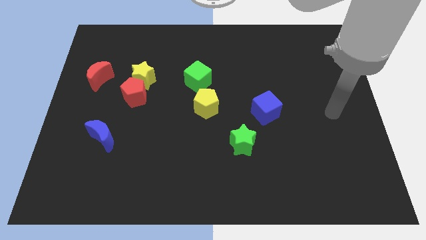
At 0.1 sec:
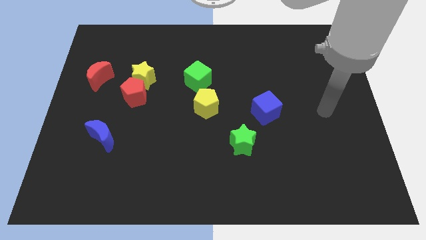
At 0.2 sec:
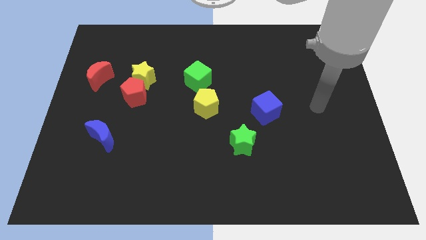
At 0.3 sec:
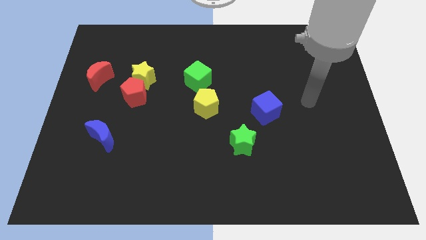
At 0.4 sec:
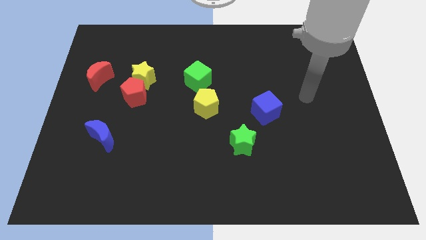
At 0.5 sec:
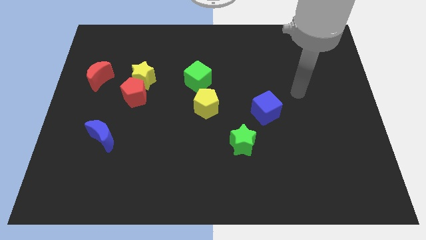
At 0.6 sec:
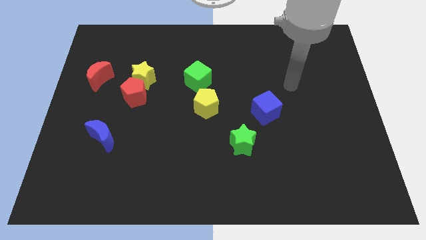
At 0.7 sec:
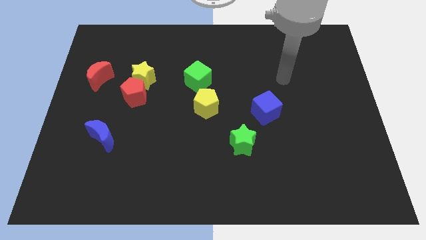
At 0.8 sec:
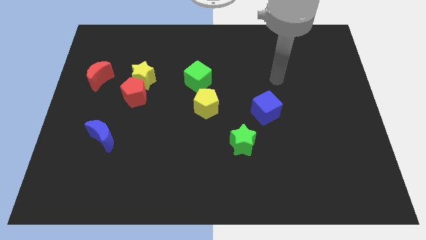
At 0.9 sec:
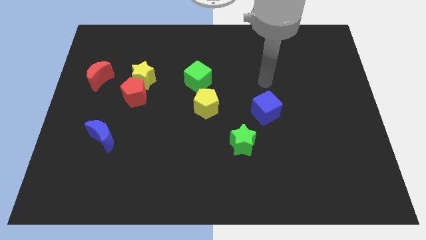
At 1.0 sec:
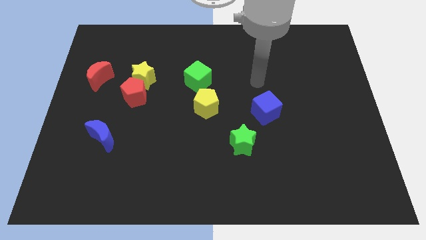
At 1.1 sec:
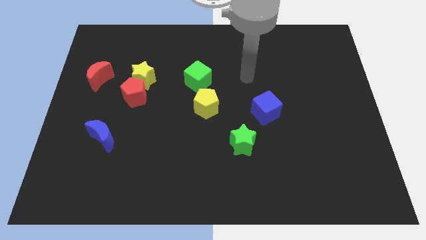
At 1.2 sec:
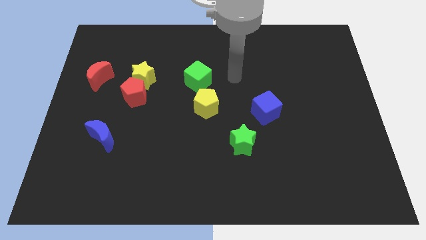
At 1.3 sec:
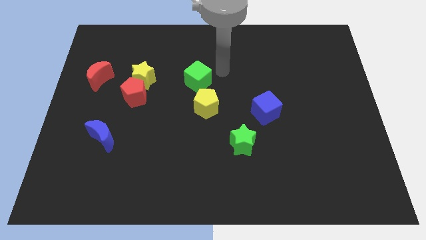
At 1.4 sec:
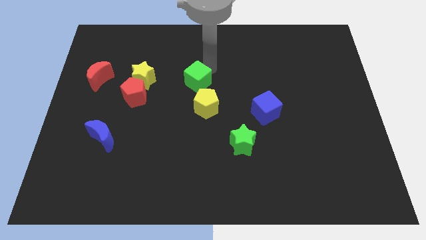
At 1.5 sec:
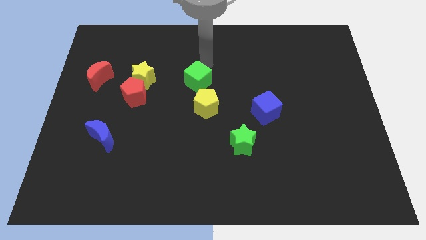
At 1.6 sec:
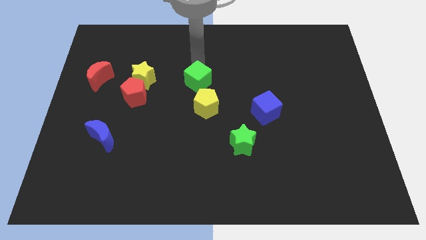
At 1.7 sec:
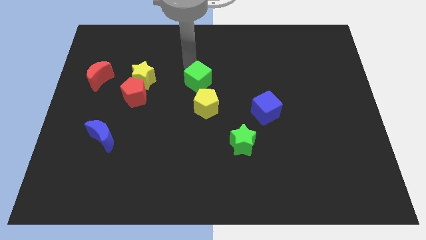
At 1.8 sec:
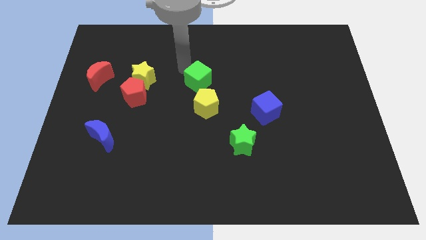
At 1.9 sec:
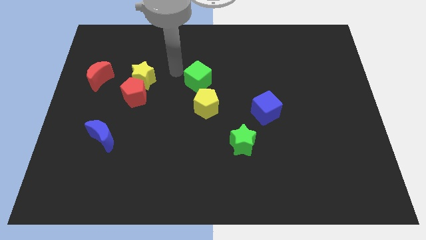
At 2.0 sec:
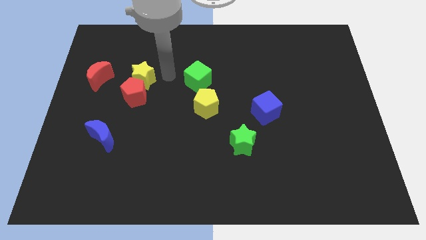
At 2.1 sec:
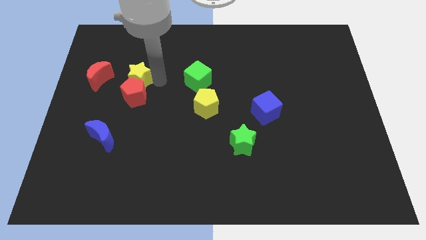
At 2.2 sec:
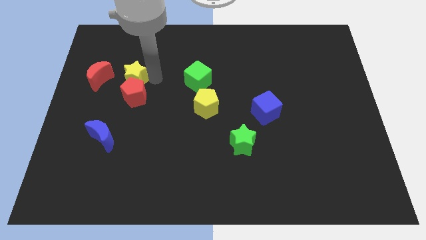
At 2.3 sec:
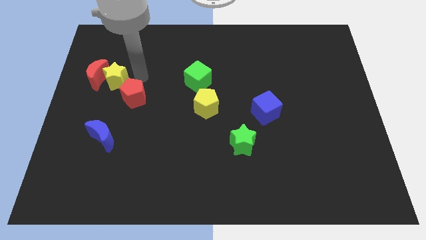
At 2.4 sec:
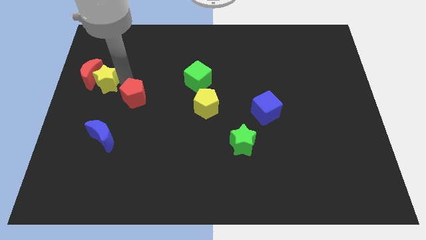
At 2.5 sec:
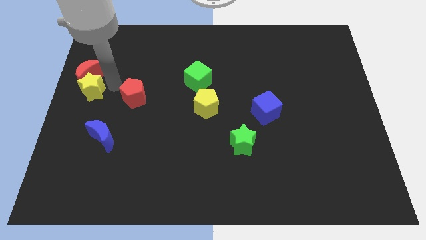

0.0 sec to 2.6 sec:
separate the red pentagon from the yellow star

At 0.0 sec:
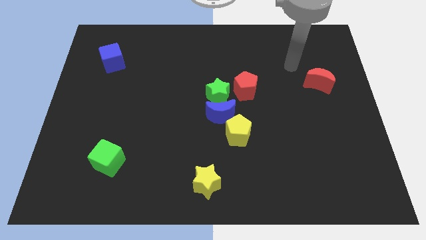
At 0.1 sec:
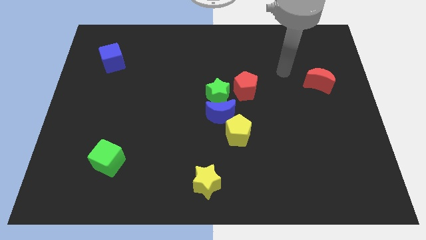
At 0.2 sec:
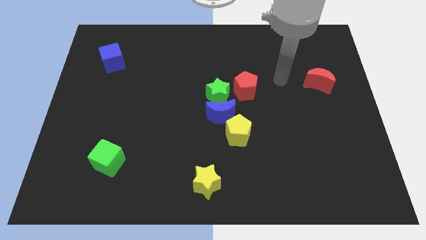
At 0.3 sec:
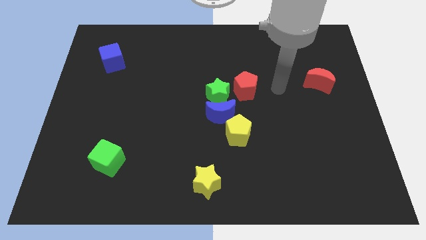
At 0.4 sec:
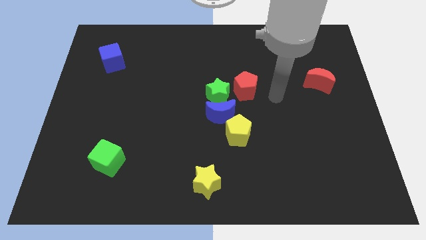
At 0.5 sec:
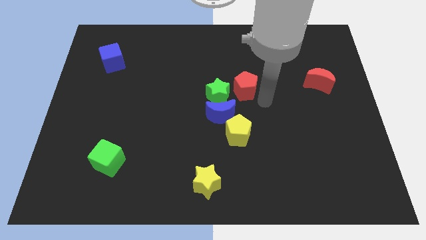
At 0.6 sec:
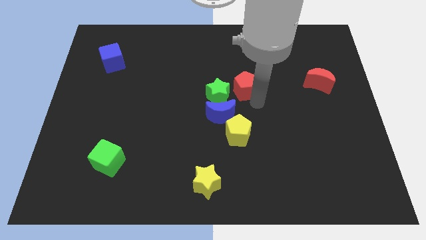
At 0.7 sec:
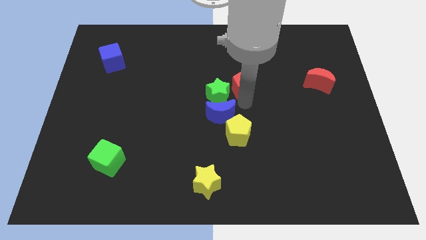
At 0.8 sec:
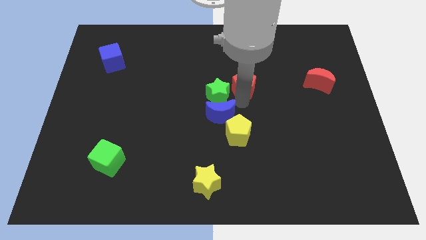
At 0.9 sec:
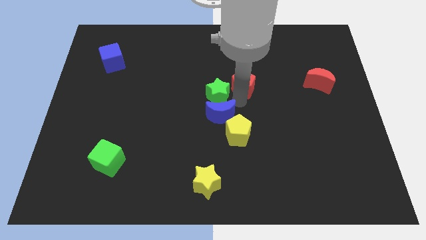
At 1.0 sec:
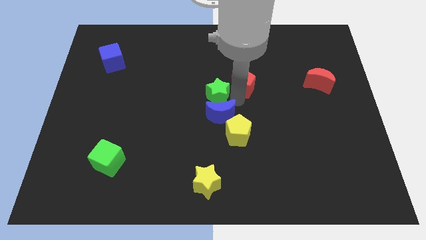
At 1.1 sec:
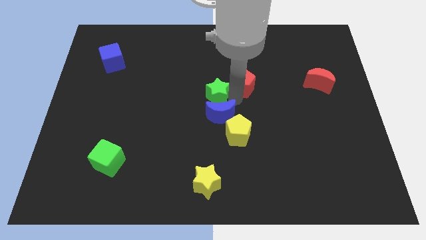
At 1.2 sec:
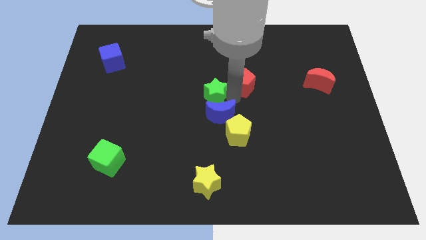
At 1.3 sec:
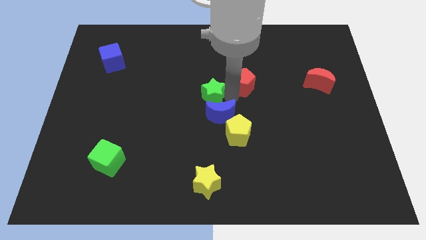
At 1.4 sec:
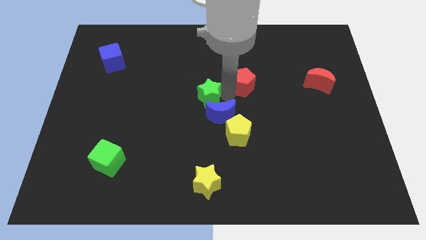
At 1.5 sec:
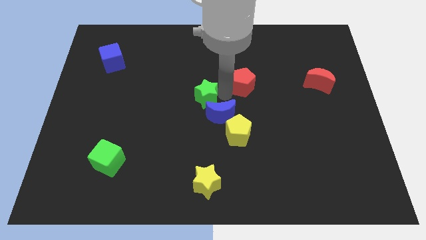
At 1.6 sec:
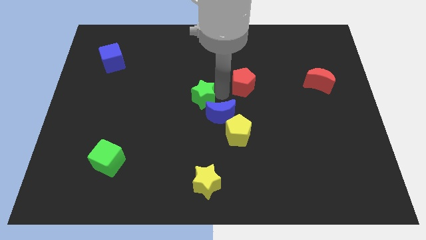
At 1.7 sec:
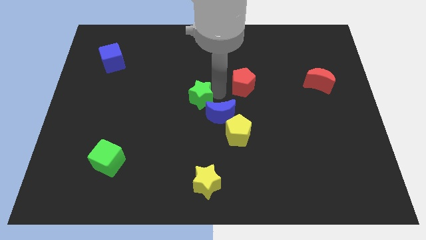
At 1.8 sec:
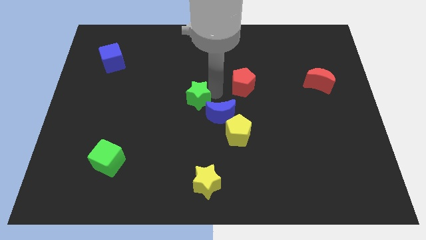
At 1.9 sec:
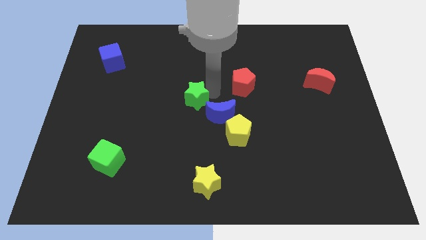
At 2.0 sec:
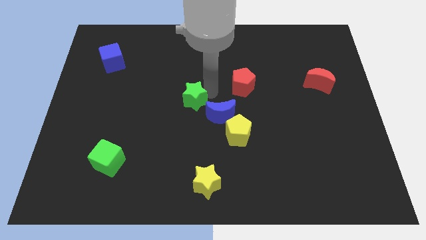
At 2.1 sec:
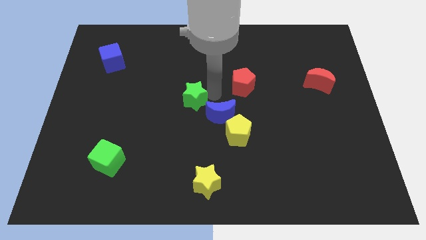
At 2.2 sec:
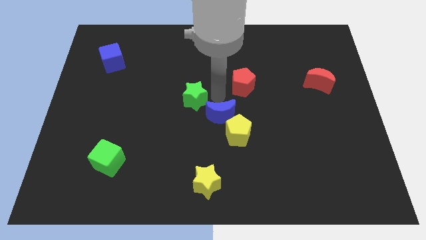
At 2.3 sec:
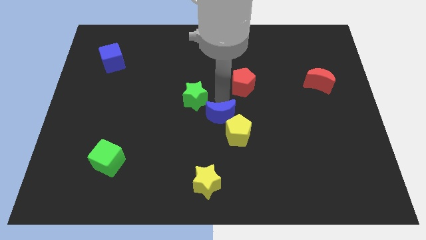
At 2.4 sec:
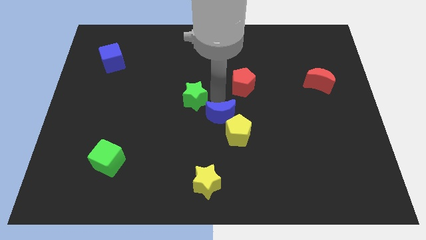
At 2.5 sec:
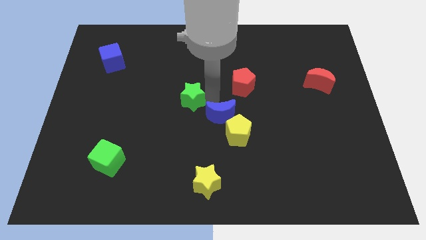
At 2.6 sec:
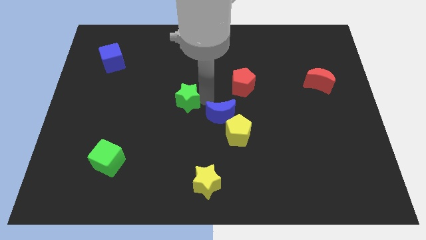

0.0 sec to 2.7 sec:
pull the green star apart from the blue moon and red pentagon

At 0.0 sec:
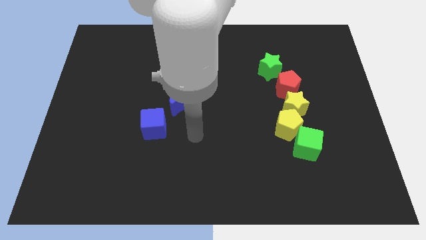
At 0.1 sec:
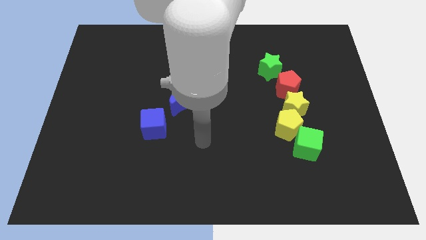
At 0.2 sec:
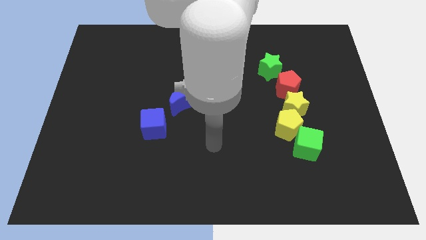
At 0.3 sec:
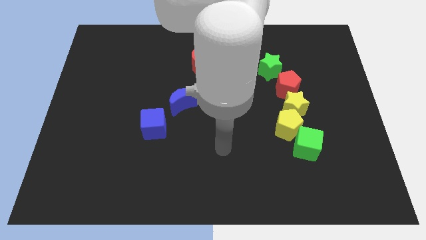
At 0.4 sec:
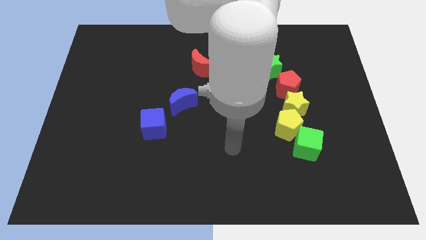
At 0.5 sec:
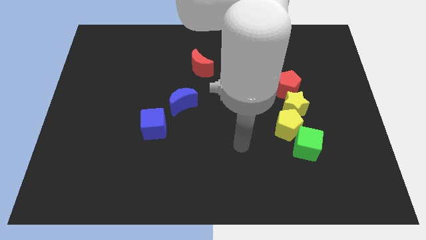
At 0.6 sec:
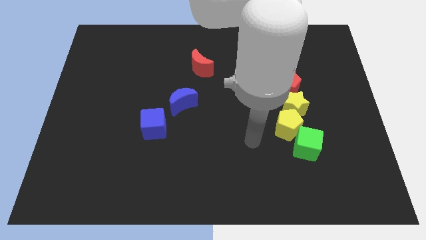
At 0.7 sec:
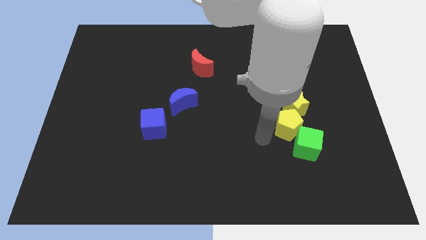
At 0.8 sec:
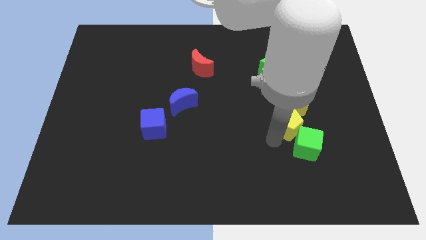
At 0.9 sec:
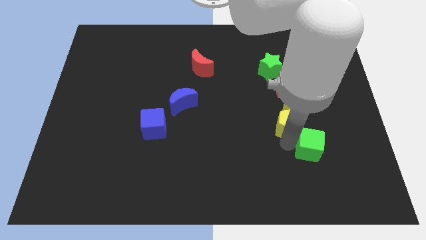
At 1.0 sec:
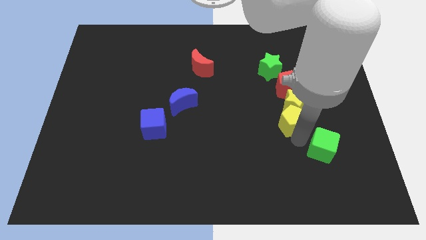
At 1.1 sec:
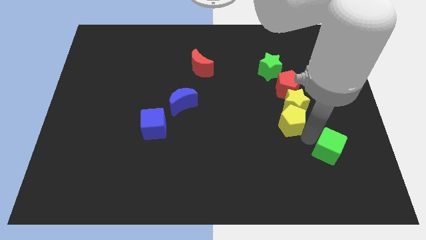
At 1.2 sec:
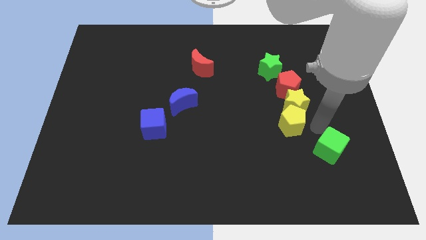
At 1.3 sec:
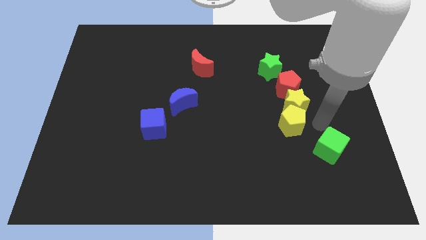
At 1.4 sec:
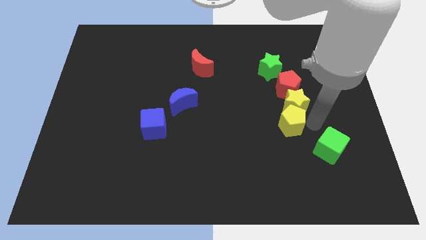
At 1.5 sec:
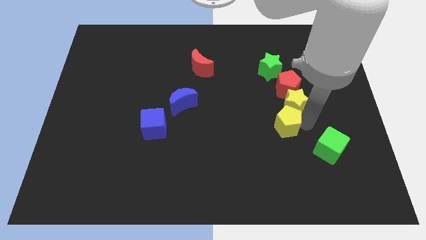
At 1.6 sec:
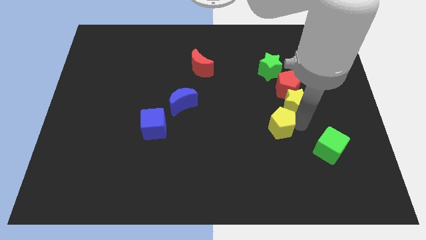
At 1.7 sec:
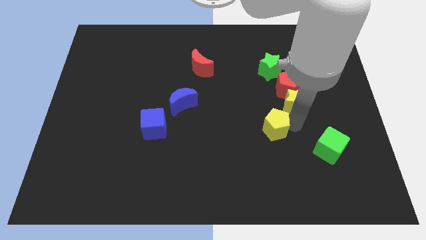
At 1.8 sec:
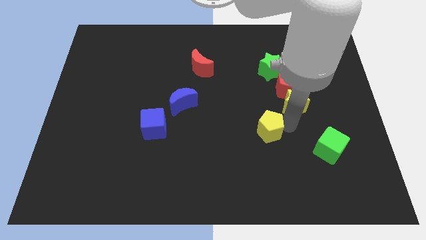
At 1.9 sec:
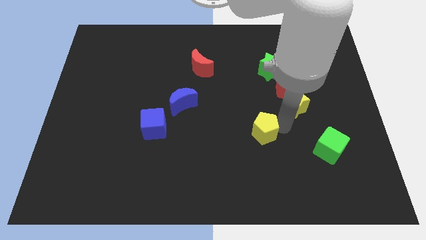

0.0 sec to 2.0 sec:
separate the yellow pentagon from the yellow star and green cube

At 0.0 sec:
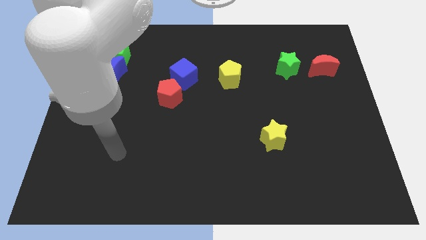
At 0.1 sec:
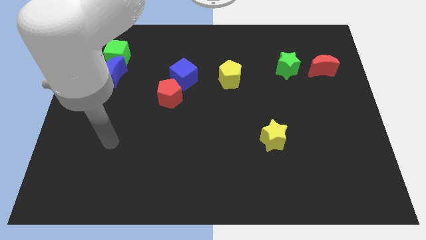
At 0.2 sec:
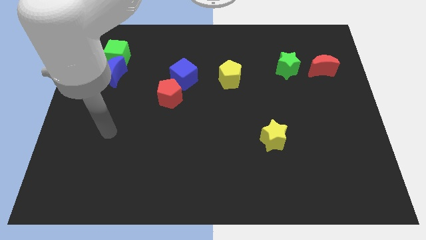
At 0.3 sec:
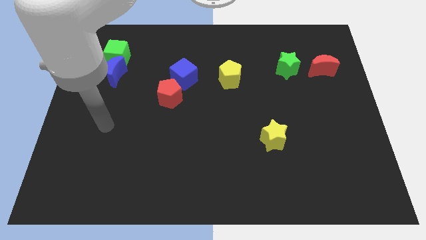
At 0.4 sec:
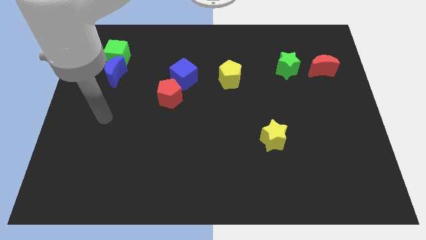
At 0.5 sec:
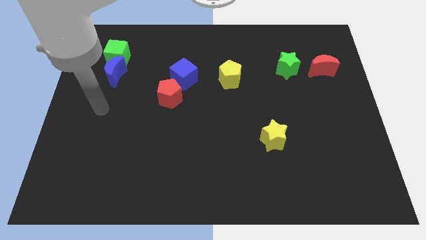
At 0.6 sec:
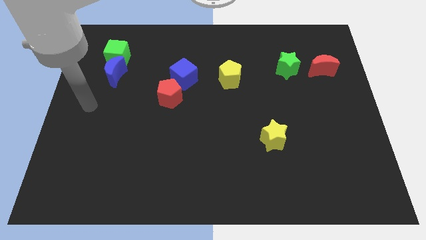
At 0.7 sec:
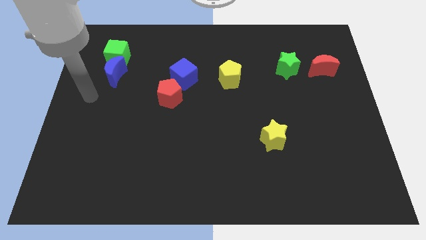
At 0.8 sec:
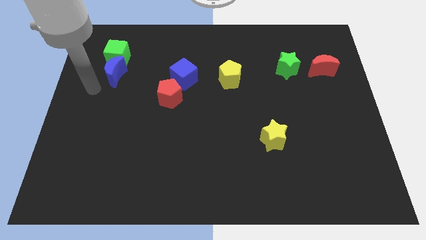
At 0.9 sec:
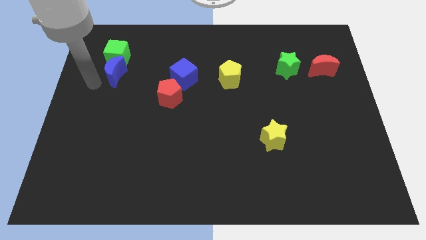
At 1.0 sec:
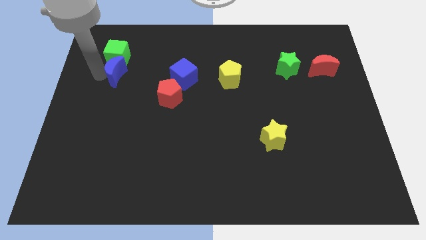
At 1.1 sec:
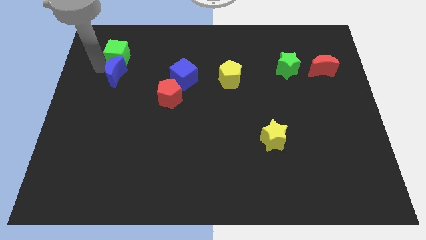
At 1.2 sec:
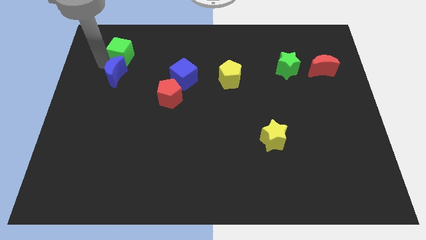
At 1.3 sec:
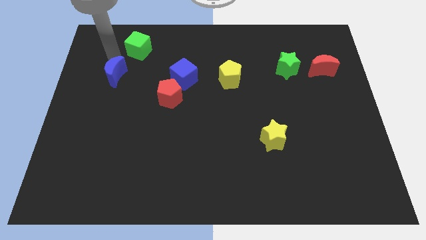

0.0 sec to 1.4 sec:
pull the blue moon apart from the green cube

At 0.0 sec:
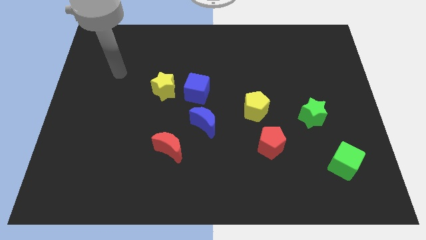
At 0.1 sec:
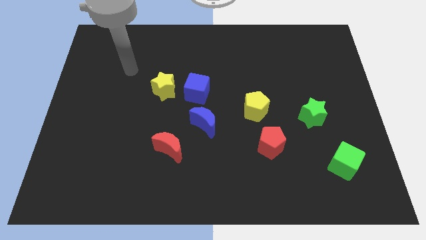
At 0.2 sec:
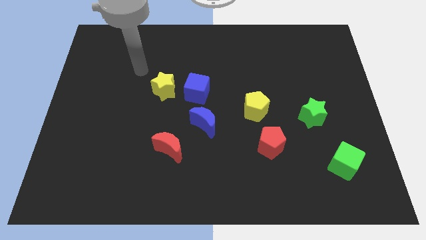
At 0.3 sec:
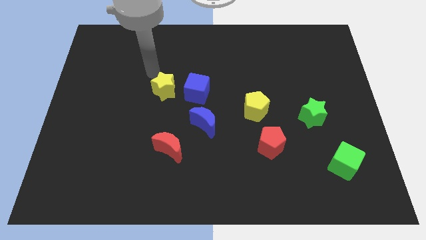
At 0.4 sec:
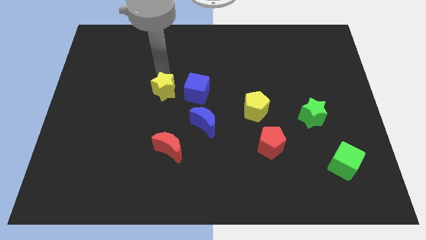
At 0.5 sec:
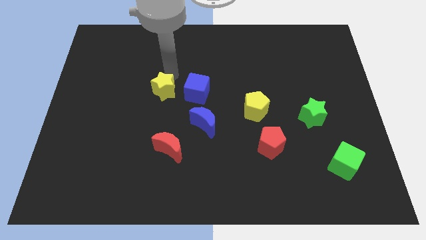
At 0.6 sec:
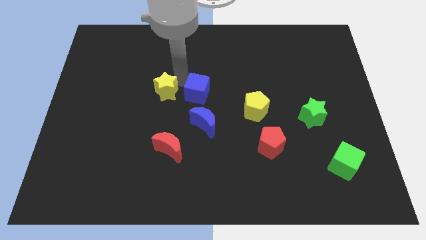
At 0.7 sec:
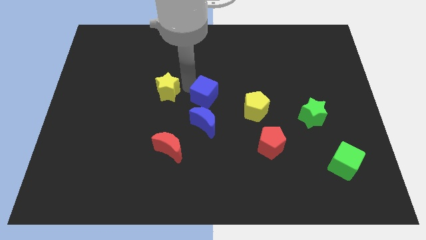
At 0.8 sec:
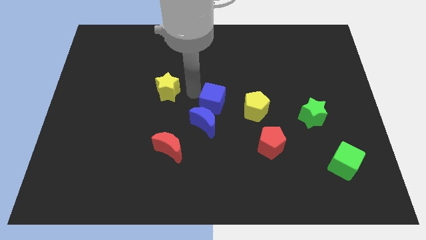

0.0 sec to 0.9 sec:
separate the yellow star from the blue cube
